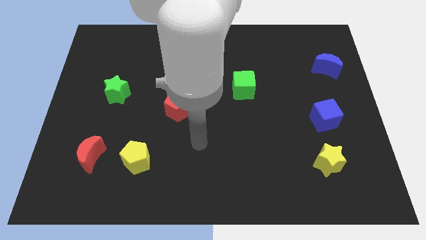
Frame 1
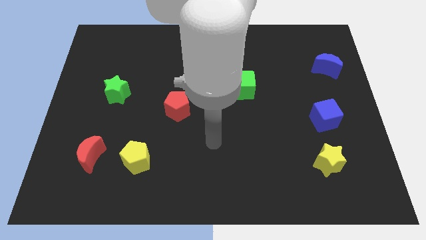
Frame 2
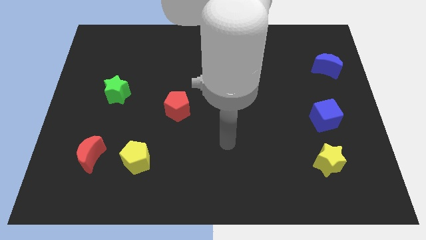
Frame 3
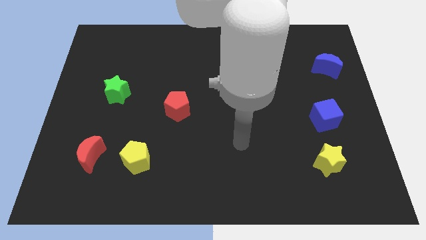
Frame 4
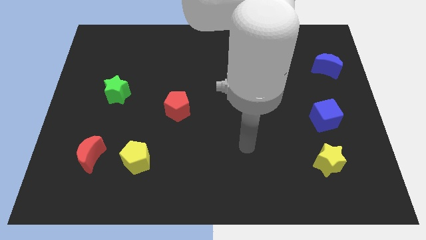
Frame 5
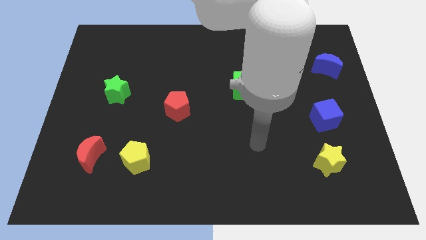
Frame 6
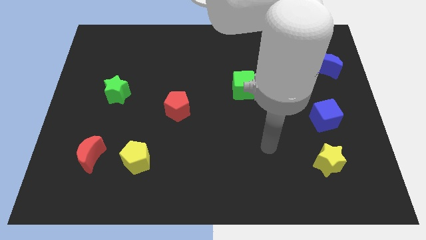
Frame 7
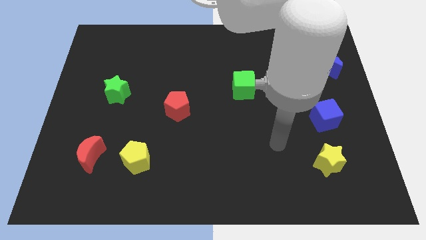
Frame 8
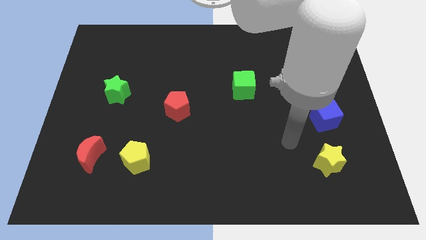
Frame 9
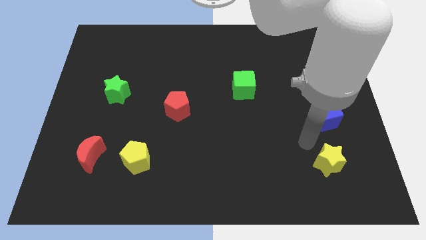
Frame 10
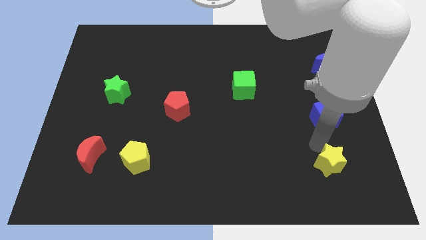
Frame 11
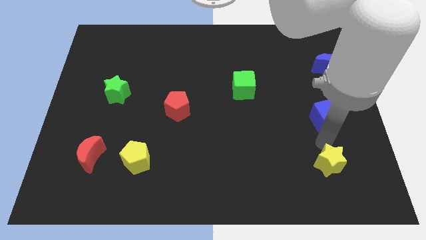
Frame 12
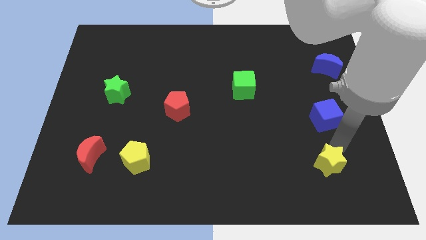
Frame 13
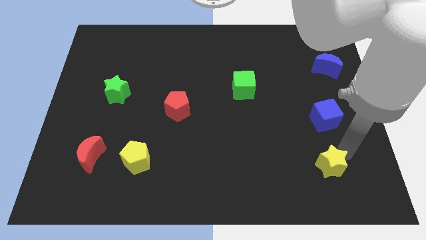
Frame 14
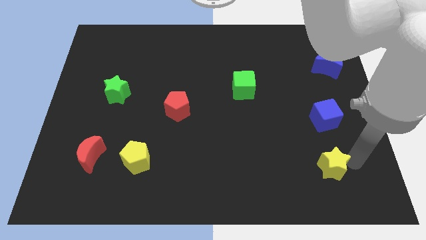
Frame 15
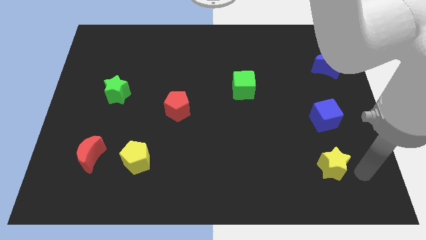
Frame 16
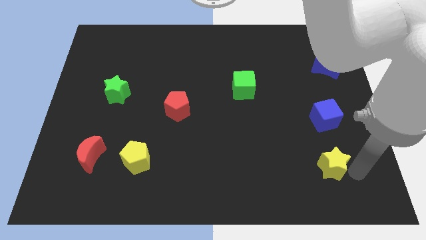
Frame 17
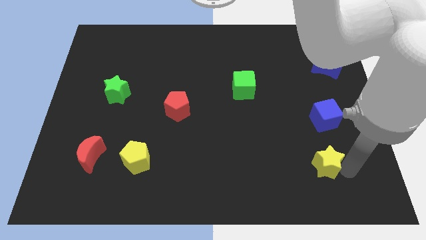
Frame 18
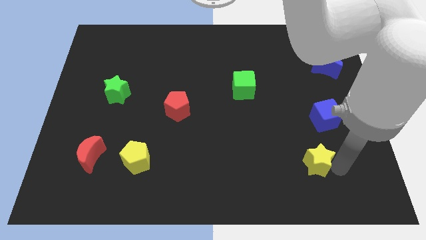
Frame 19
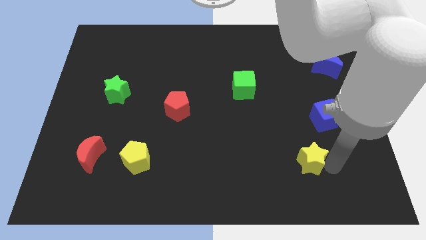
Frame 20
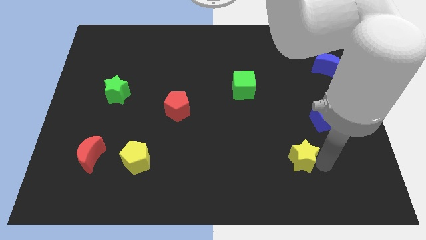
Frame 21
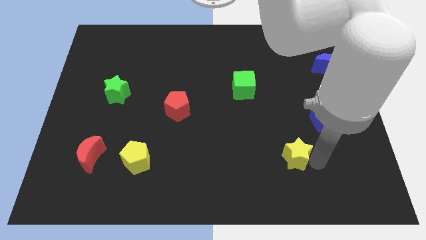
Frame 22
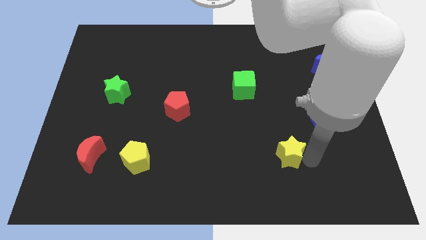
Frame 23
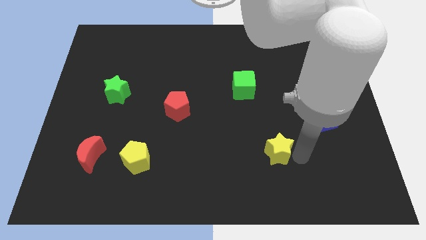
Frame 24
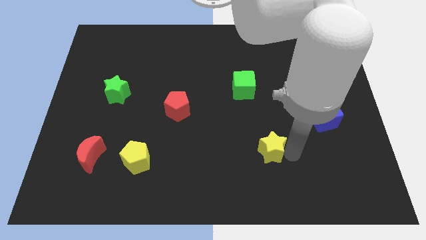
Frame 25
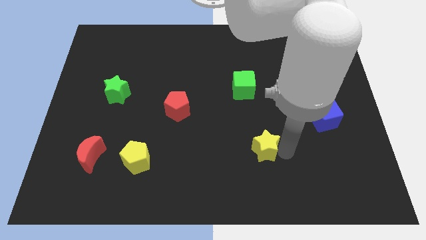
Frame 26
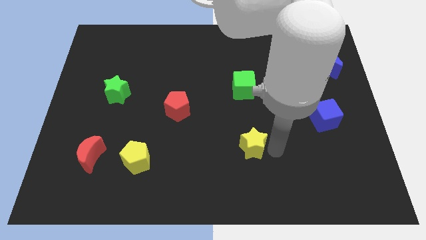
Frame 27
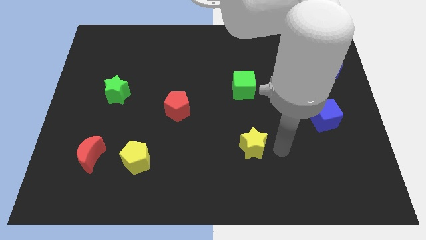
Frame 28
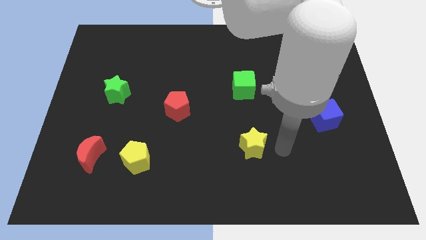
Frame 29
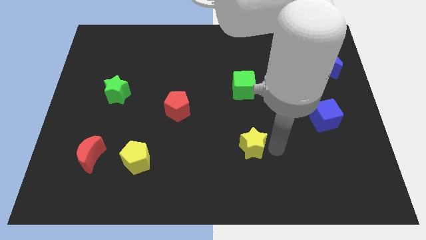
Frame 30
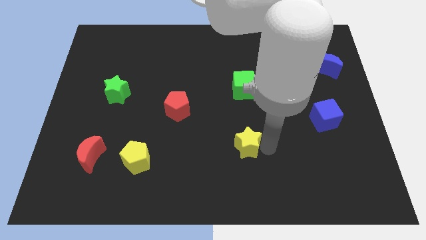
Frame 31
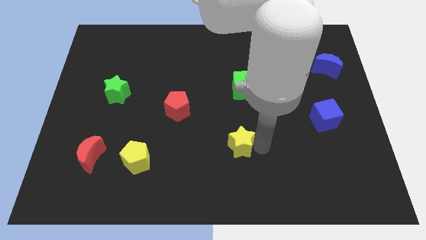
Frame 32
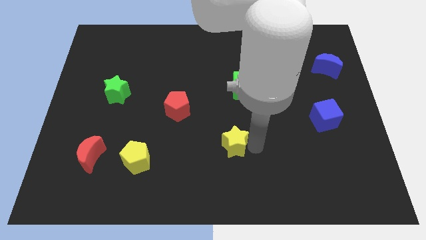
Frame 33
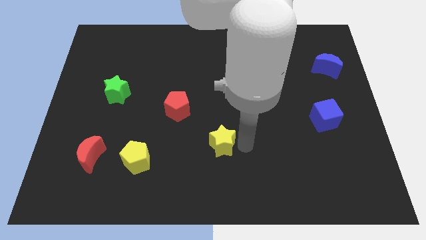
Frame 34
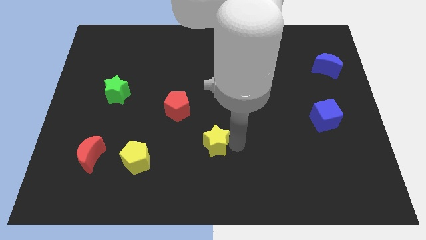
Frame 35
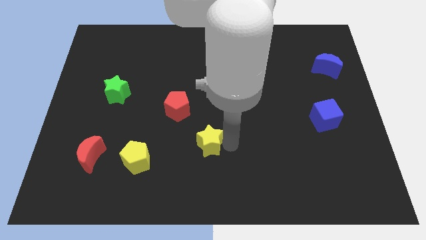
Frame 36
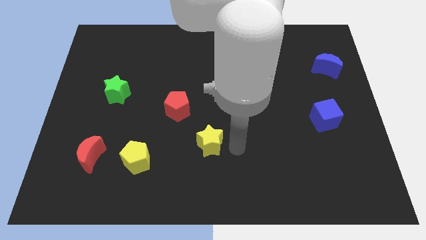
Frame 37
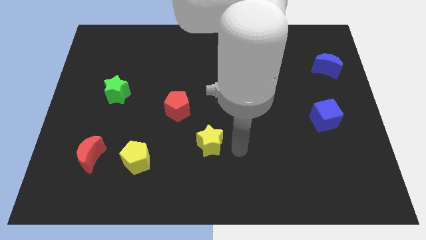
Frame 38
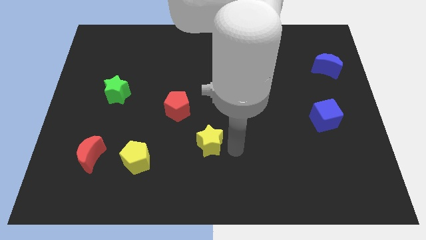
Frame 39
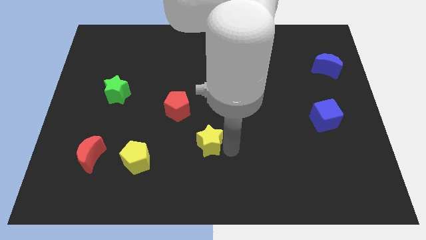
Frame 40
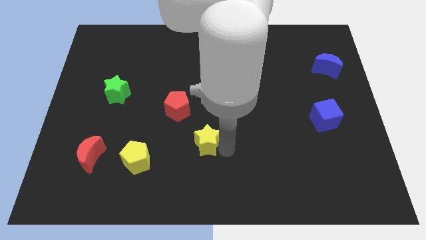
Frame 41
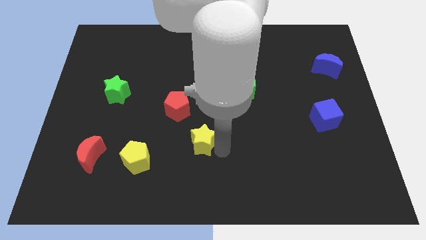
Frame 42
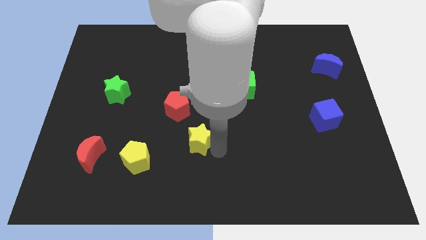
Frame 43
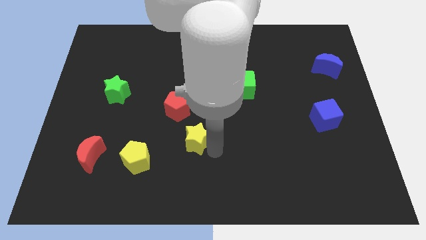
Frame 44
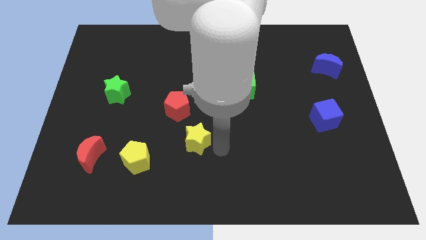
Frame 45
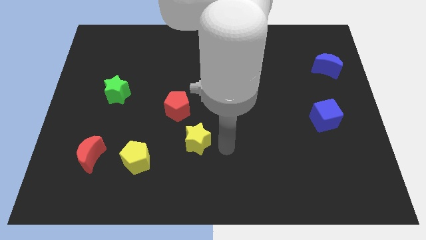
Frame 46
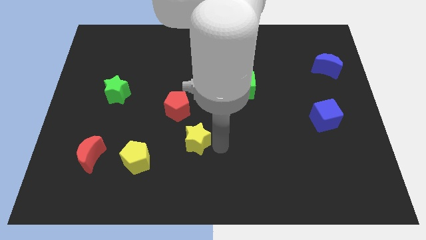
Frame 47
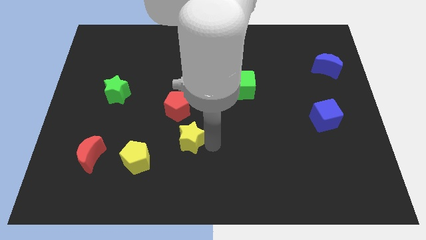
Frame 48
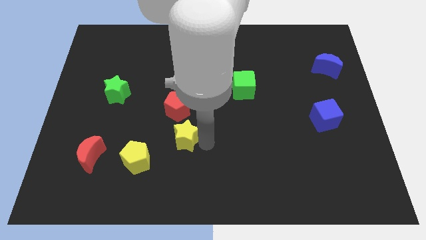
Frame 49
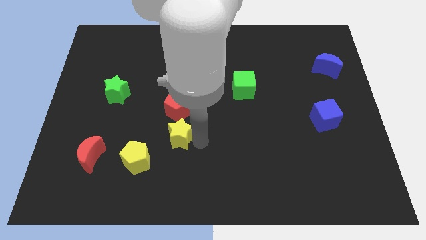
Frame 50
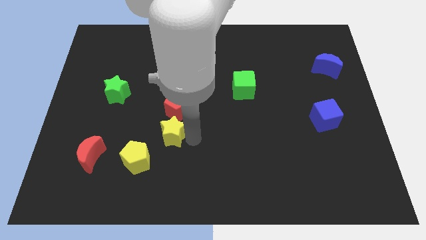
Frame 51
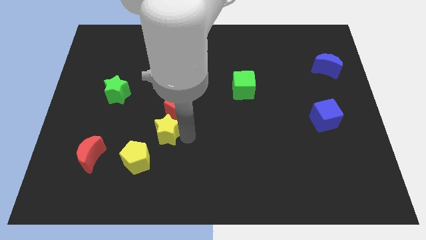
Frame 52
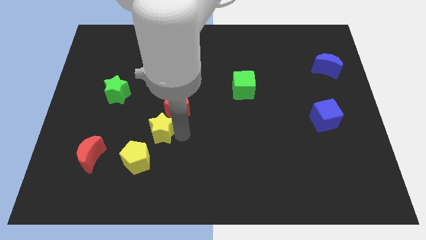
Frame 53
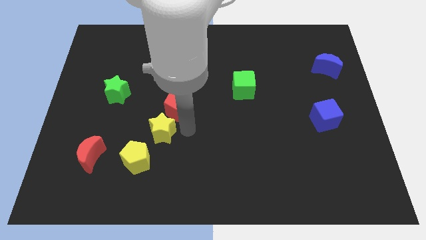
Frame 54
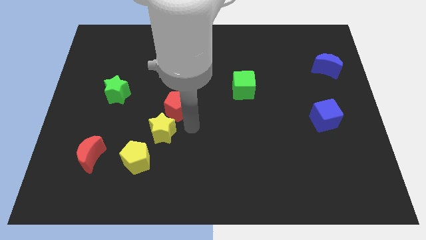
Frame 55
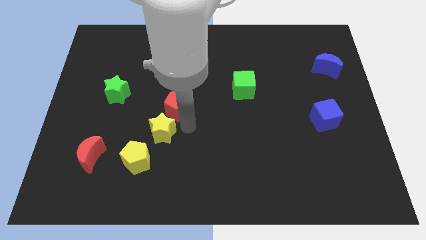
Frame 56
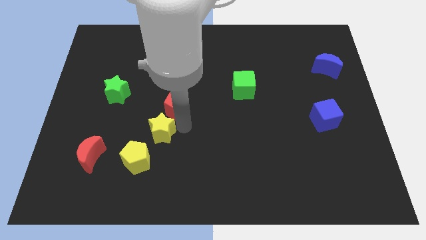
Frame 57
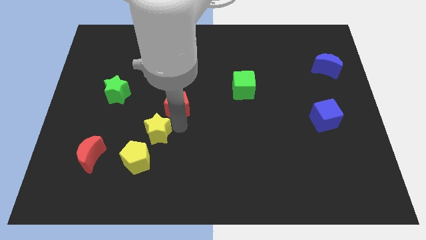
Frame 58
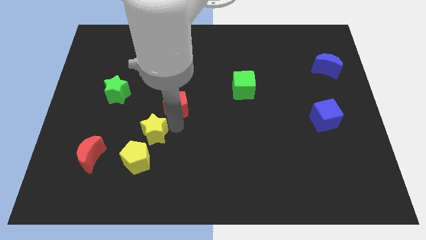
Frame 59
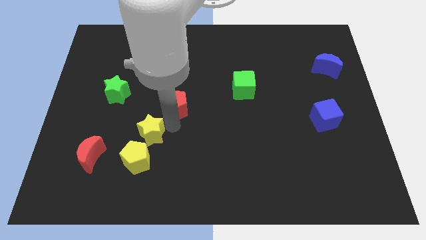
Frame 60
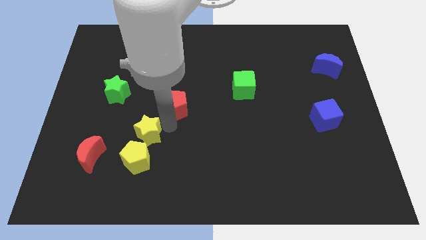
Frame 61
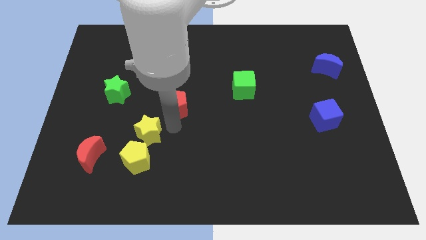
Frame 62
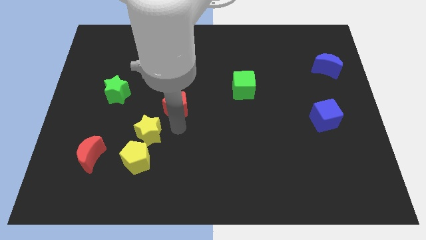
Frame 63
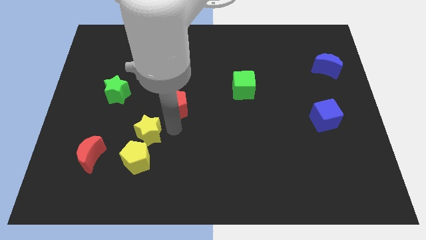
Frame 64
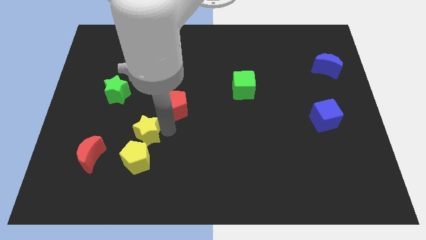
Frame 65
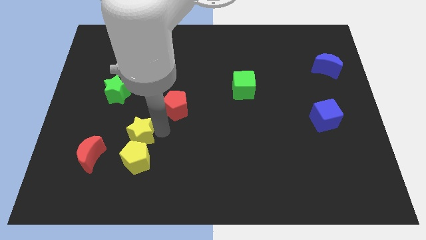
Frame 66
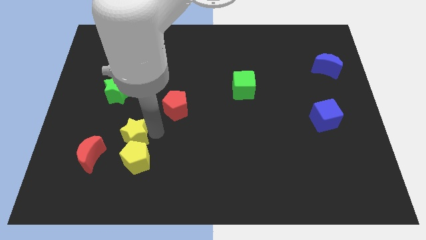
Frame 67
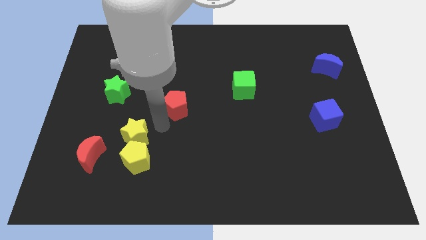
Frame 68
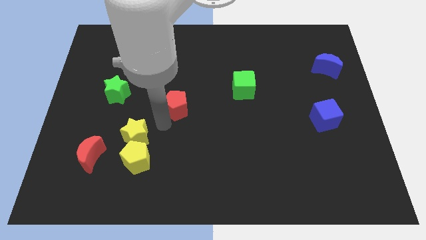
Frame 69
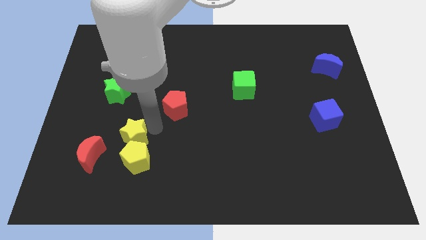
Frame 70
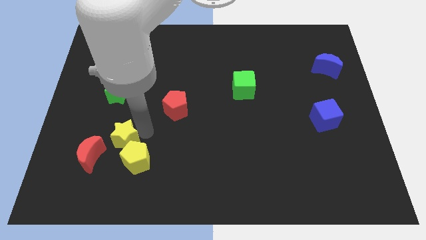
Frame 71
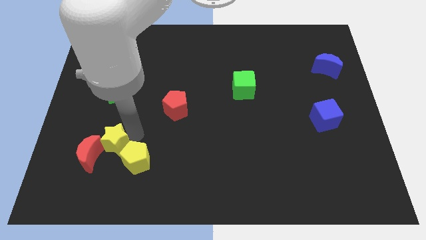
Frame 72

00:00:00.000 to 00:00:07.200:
move the yellow star towards the red moon
